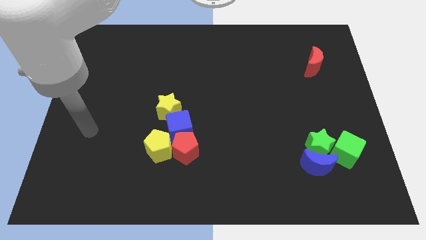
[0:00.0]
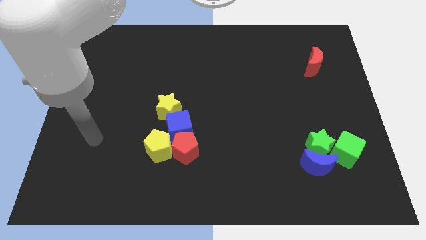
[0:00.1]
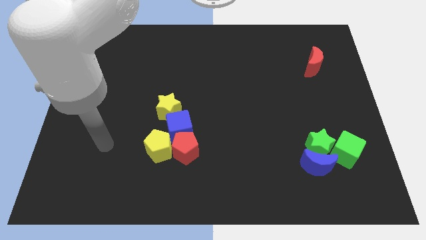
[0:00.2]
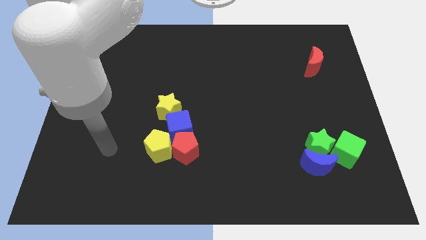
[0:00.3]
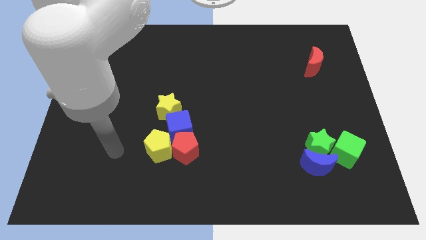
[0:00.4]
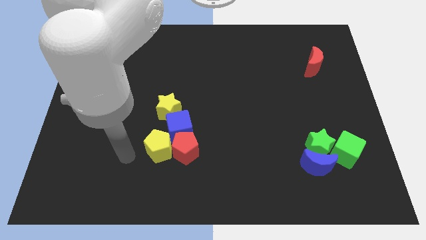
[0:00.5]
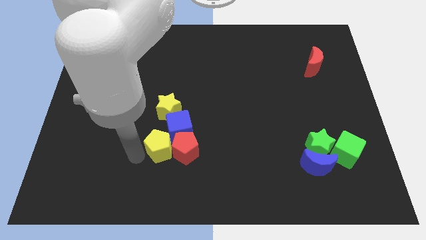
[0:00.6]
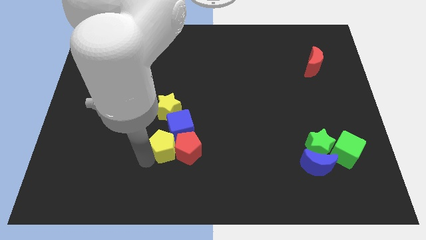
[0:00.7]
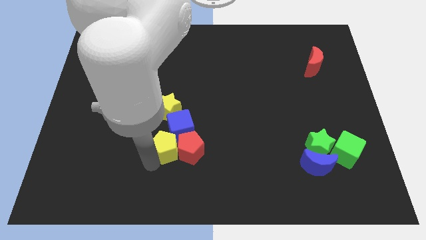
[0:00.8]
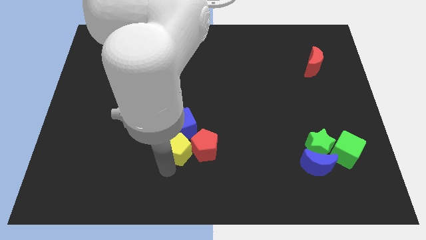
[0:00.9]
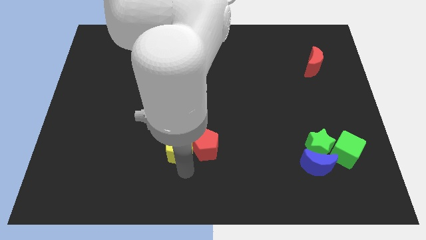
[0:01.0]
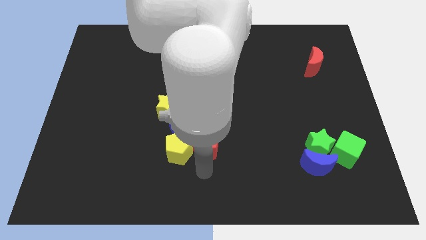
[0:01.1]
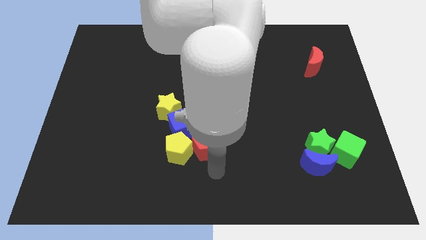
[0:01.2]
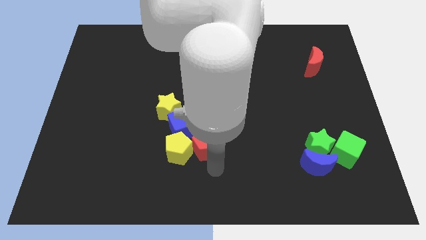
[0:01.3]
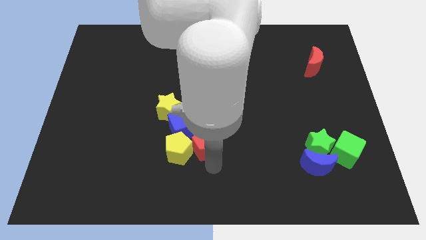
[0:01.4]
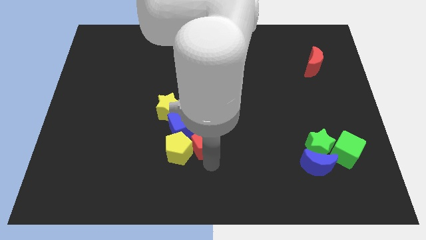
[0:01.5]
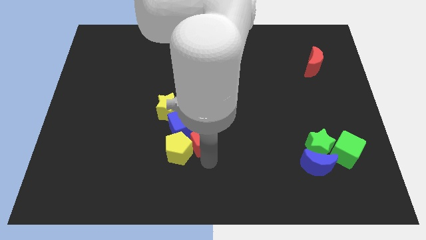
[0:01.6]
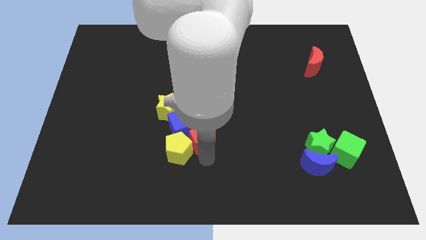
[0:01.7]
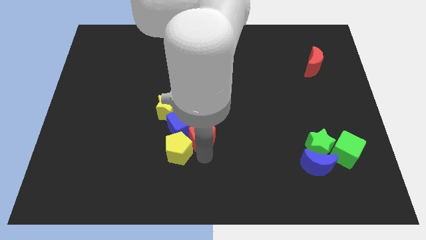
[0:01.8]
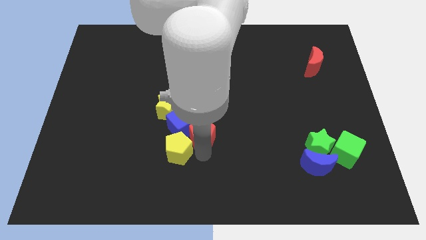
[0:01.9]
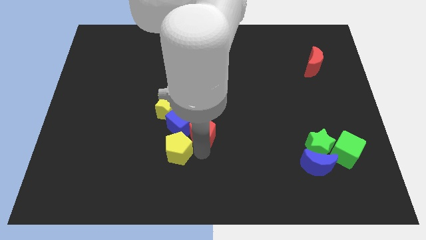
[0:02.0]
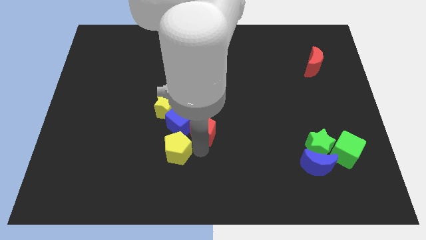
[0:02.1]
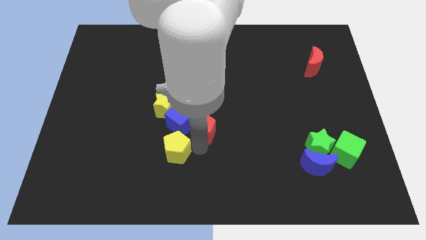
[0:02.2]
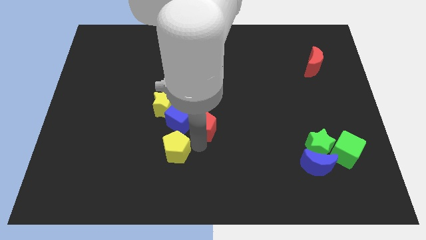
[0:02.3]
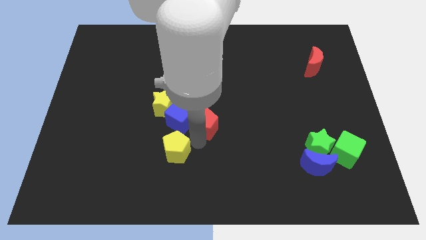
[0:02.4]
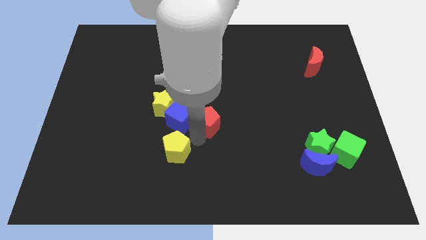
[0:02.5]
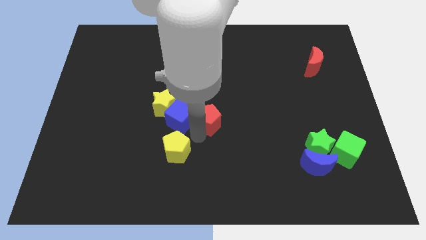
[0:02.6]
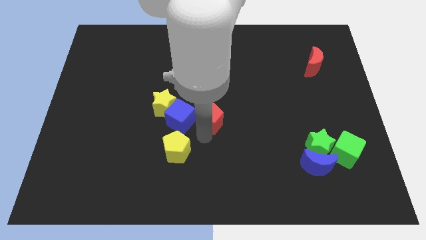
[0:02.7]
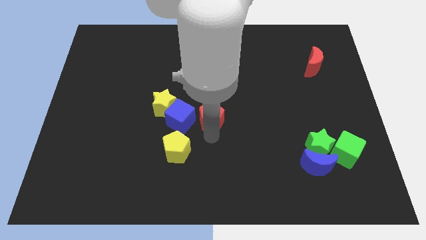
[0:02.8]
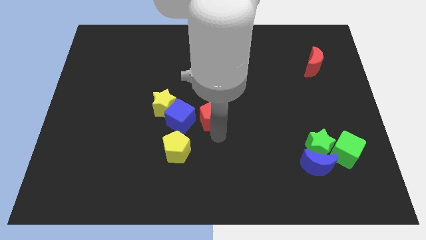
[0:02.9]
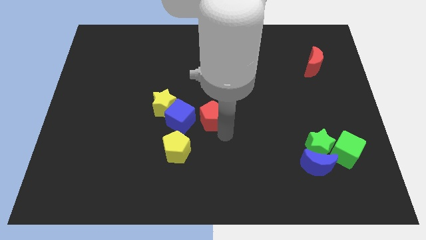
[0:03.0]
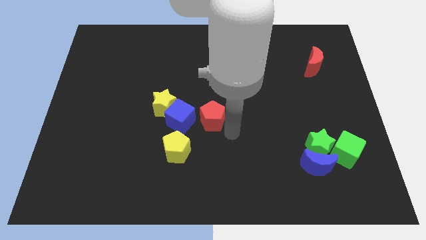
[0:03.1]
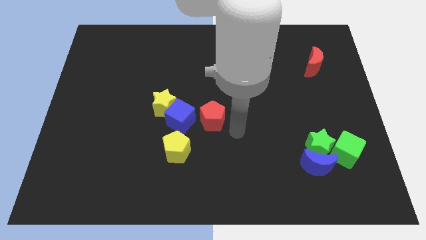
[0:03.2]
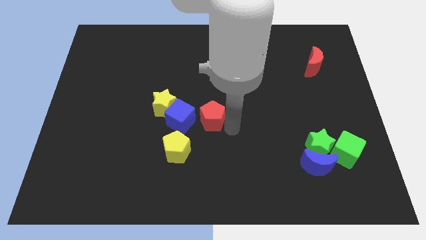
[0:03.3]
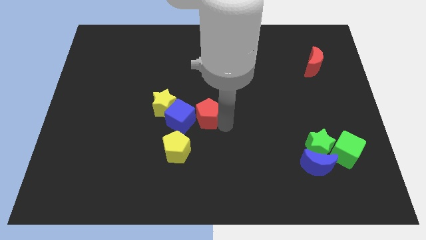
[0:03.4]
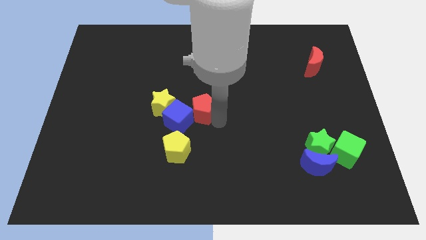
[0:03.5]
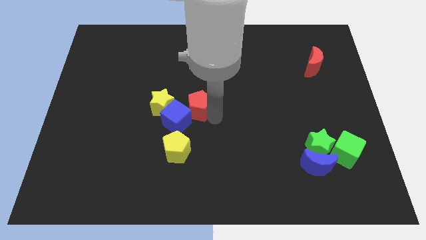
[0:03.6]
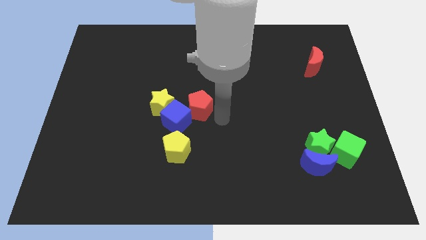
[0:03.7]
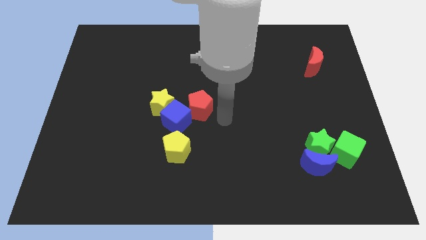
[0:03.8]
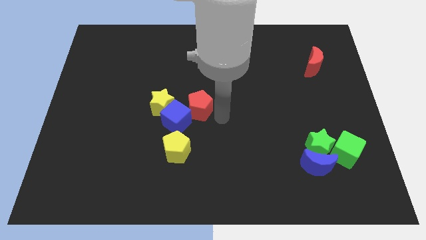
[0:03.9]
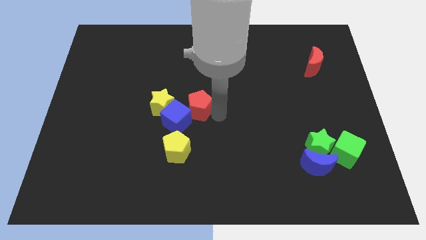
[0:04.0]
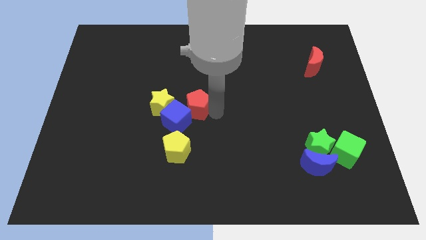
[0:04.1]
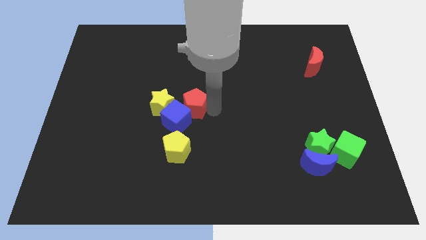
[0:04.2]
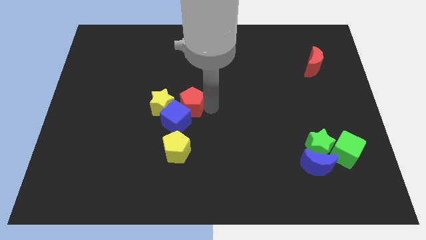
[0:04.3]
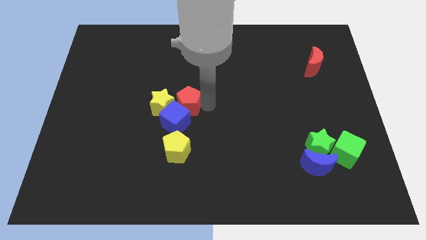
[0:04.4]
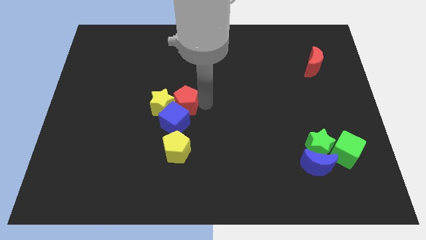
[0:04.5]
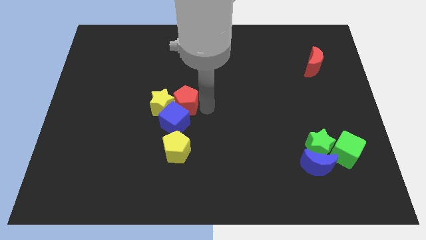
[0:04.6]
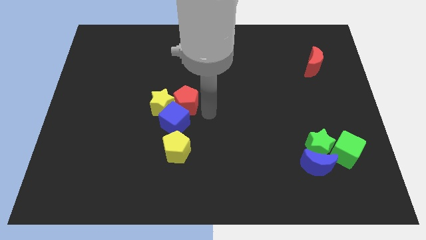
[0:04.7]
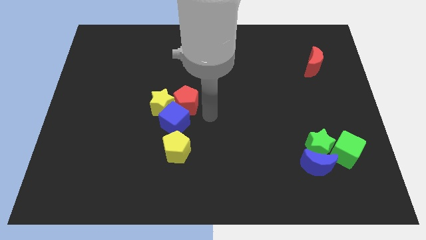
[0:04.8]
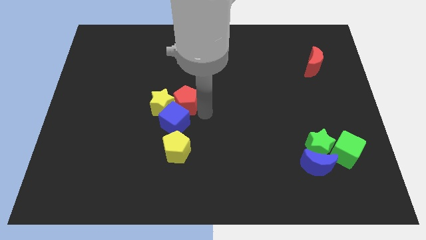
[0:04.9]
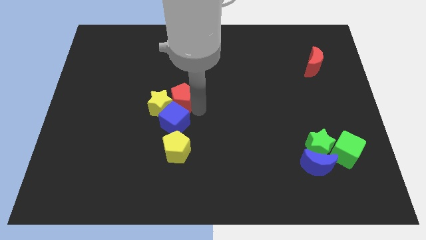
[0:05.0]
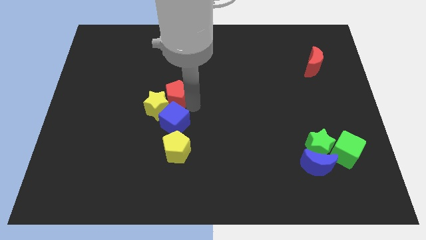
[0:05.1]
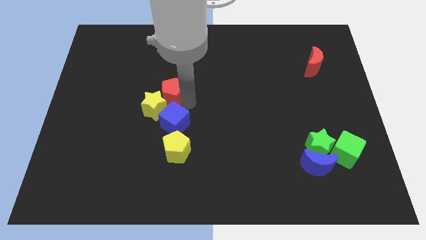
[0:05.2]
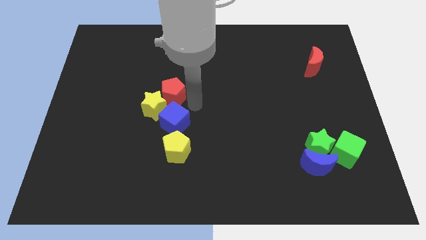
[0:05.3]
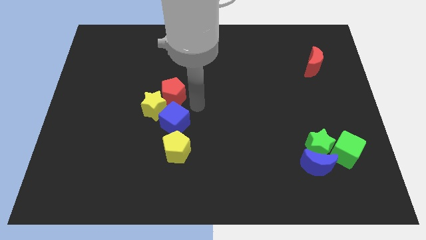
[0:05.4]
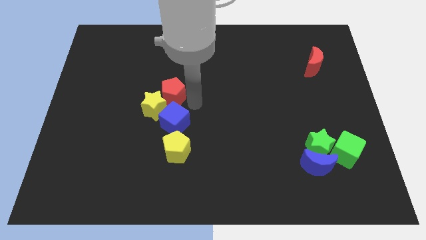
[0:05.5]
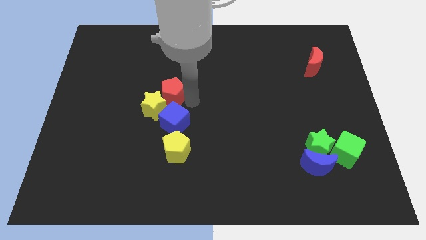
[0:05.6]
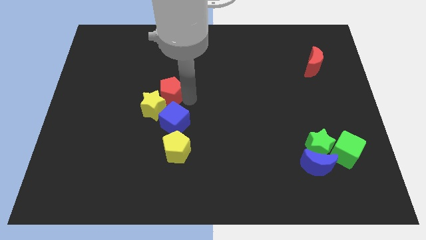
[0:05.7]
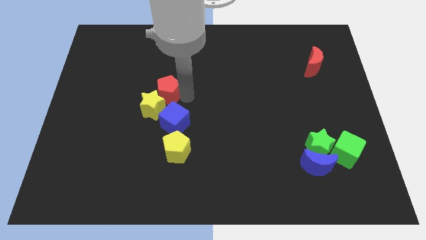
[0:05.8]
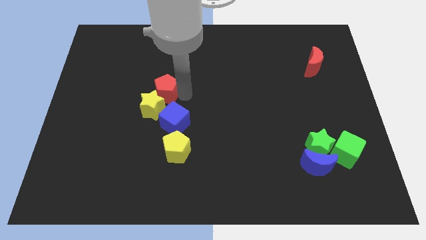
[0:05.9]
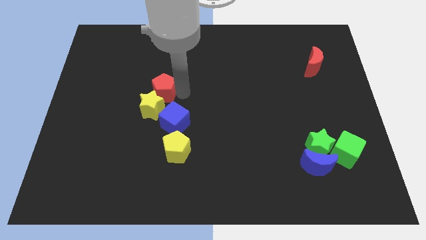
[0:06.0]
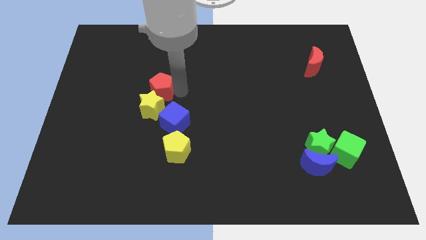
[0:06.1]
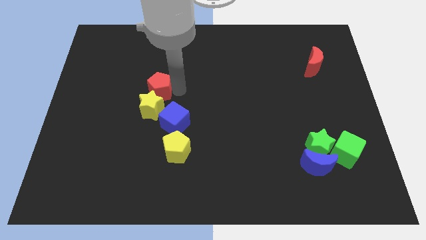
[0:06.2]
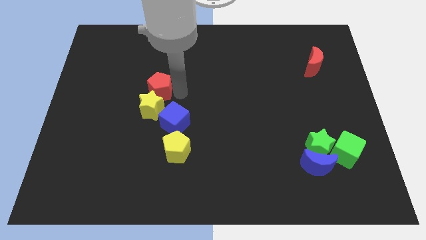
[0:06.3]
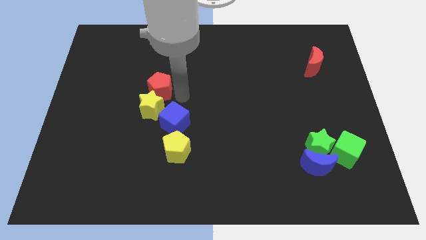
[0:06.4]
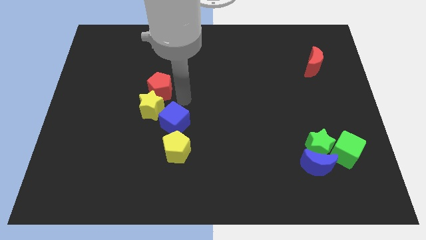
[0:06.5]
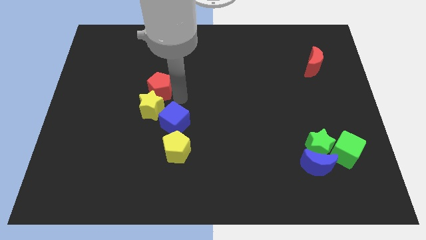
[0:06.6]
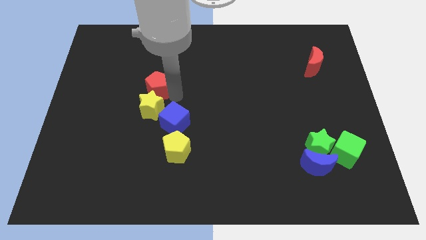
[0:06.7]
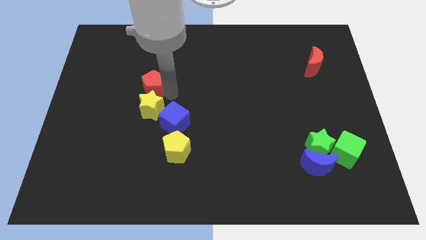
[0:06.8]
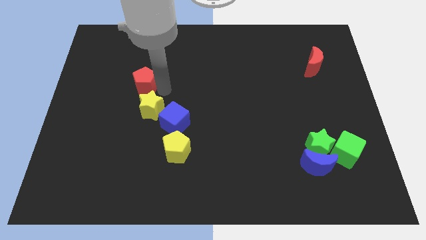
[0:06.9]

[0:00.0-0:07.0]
push the red pentagon diagonally upwards and left

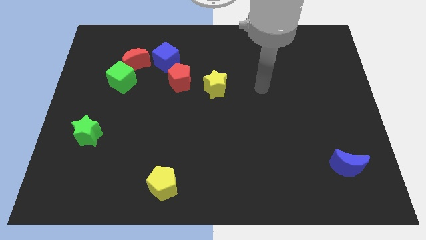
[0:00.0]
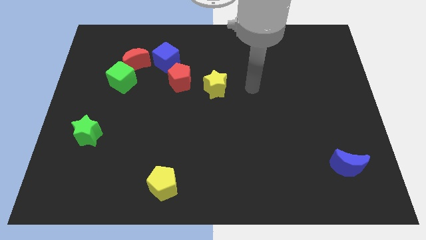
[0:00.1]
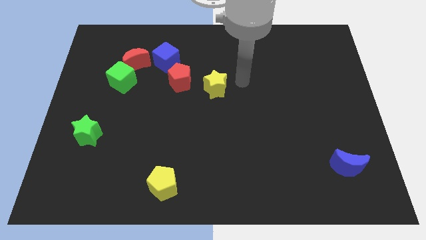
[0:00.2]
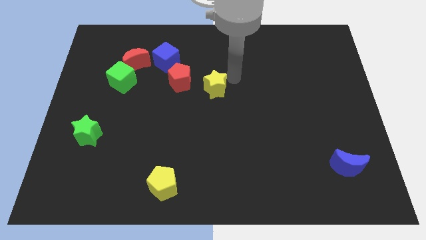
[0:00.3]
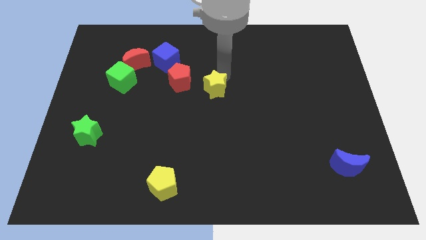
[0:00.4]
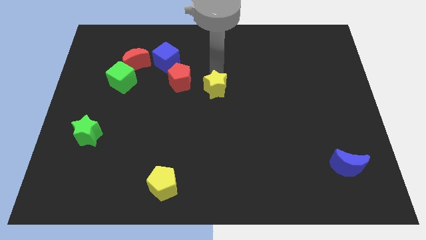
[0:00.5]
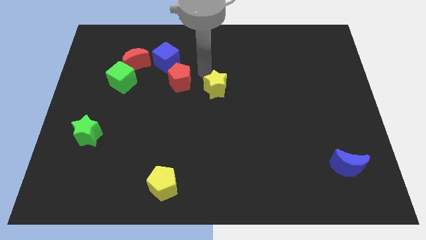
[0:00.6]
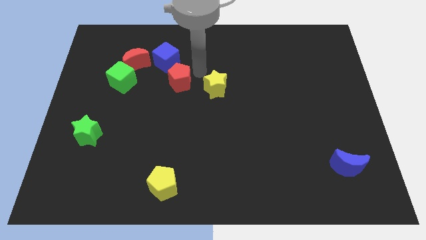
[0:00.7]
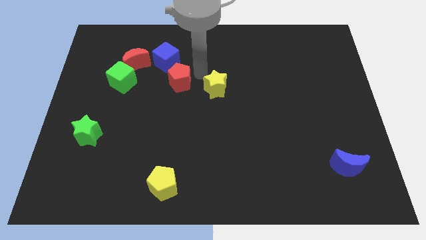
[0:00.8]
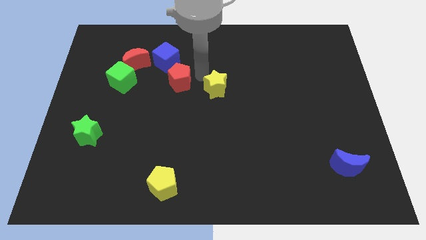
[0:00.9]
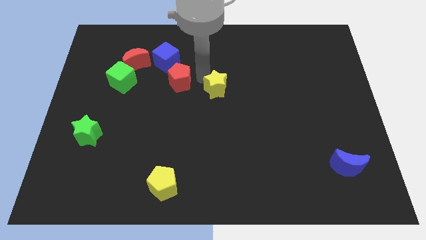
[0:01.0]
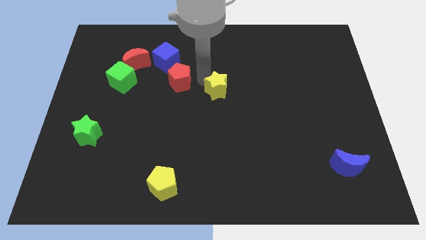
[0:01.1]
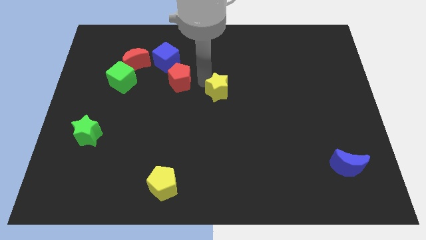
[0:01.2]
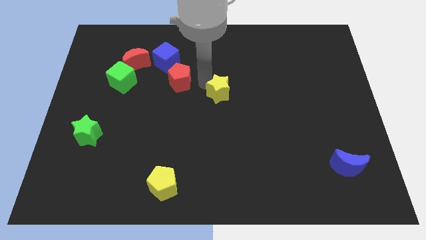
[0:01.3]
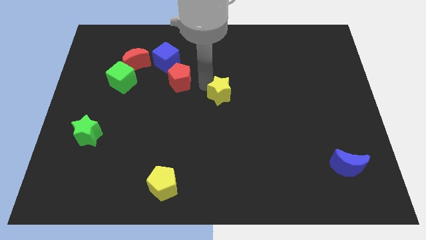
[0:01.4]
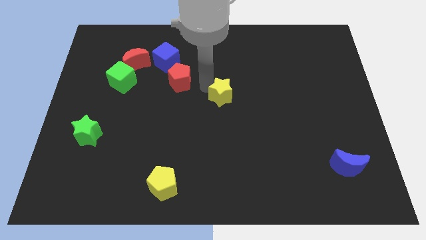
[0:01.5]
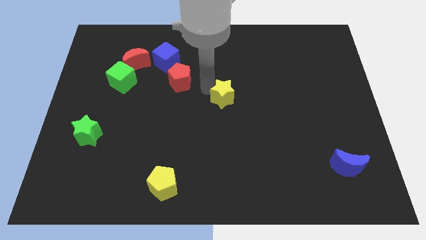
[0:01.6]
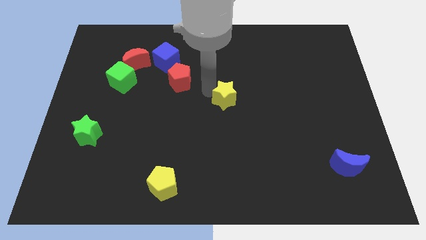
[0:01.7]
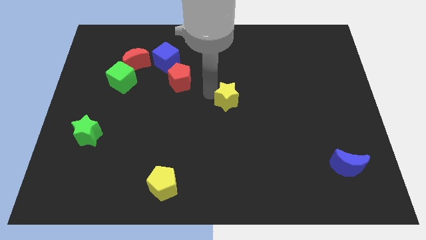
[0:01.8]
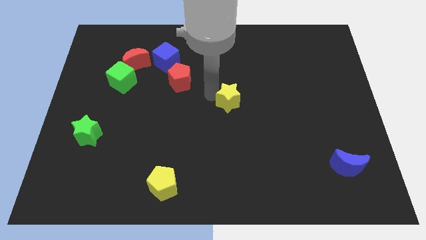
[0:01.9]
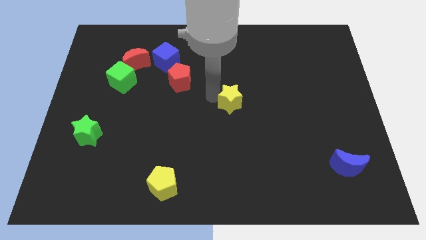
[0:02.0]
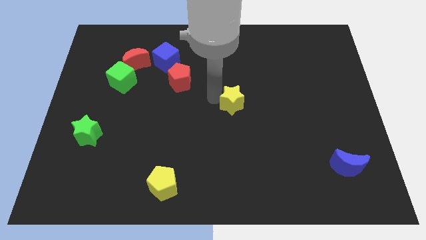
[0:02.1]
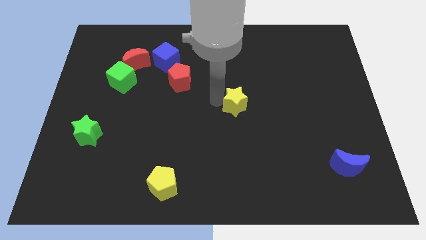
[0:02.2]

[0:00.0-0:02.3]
slightly slide the yellow star down and right diagonally
